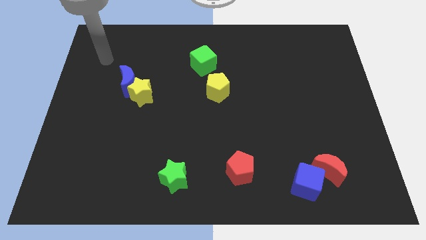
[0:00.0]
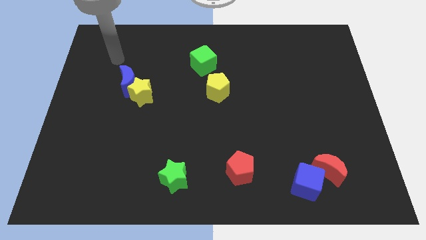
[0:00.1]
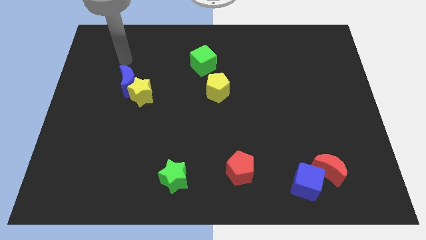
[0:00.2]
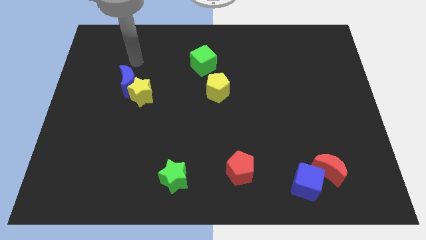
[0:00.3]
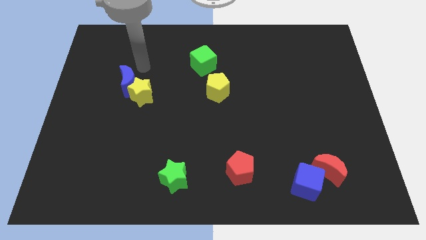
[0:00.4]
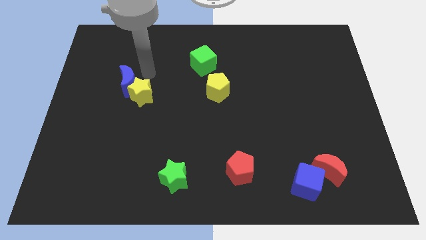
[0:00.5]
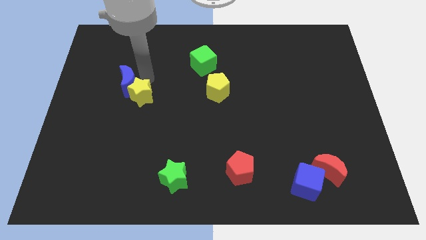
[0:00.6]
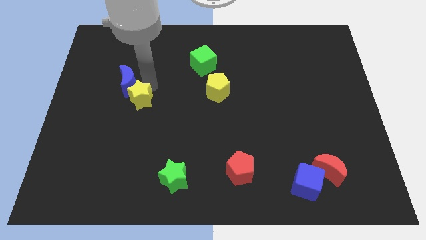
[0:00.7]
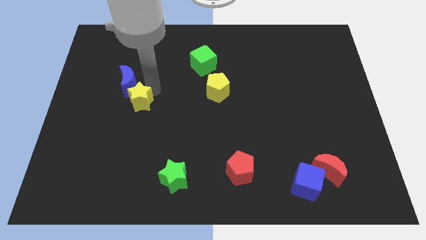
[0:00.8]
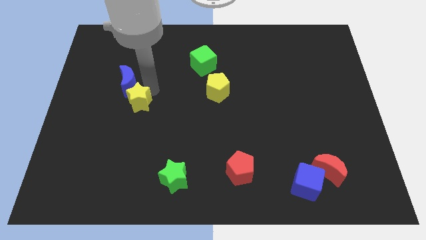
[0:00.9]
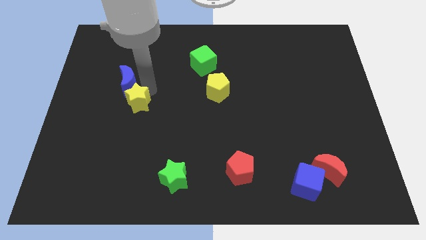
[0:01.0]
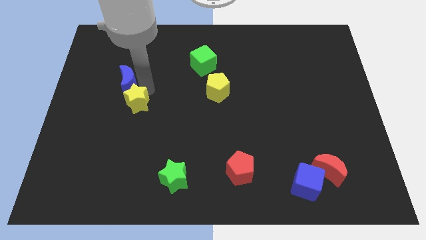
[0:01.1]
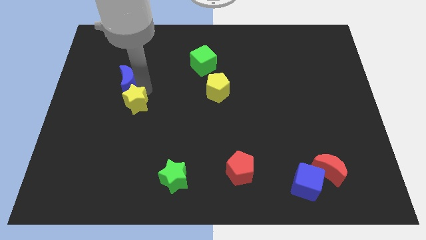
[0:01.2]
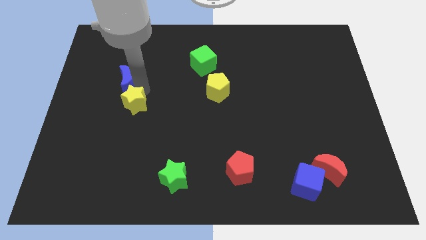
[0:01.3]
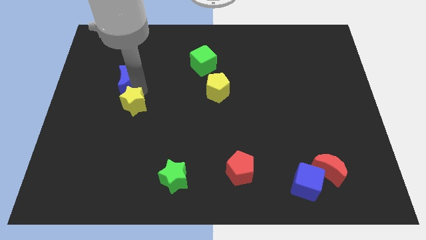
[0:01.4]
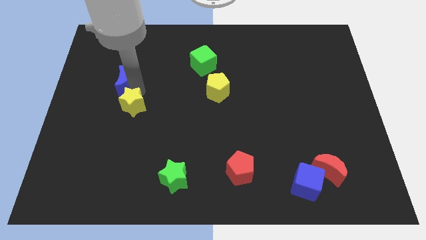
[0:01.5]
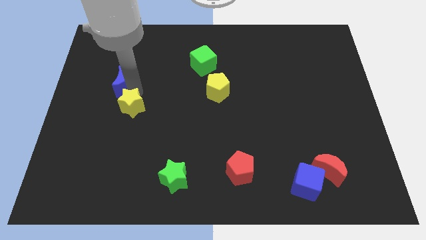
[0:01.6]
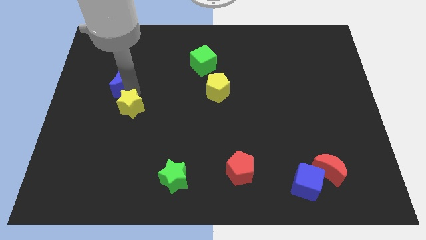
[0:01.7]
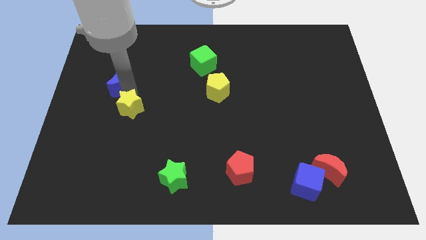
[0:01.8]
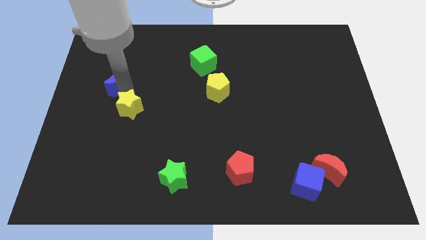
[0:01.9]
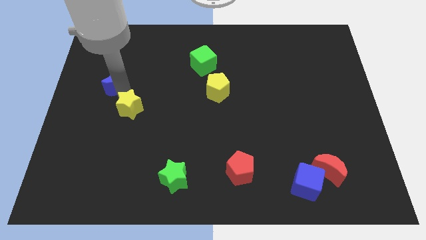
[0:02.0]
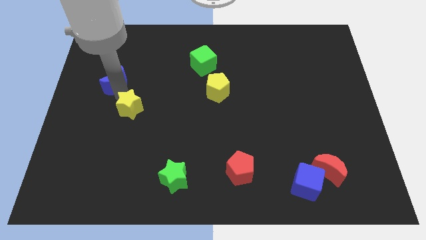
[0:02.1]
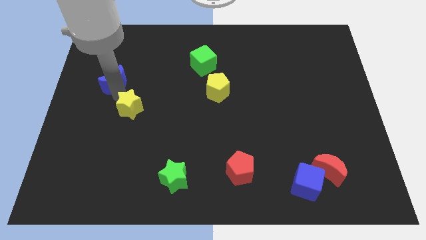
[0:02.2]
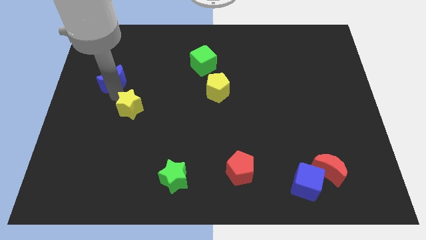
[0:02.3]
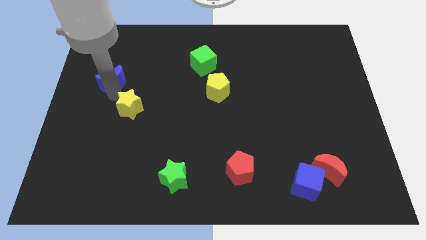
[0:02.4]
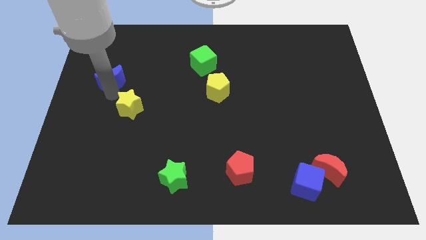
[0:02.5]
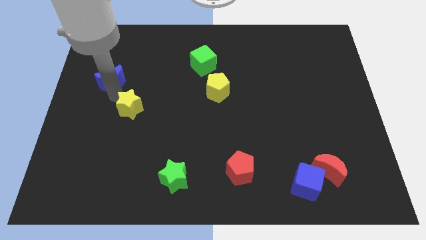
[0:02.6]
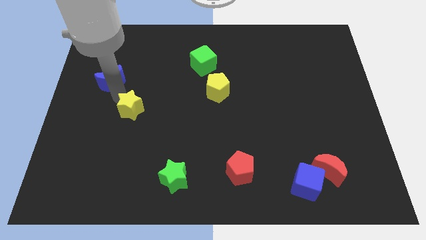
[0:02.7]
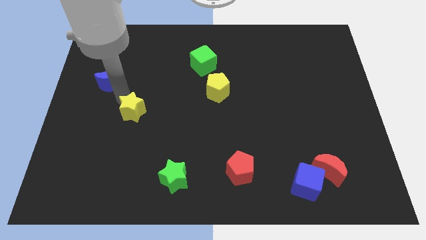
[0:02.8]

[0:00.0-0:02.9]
pull the blue moon apart from the yellow star

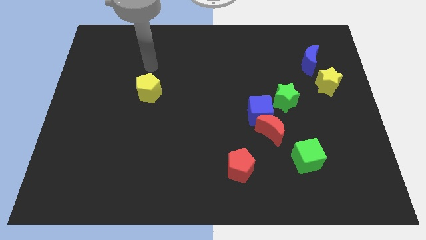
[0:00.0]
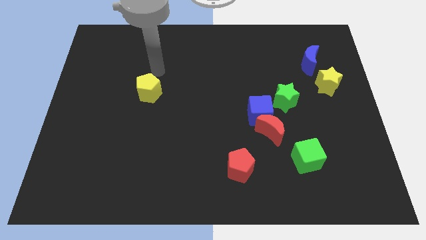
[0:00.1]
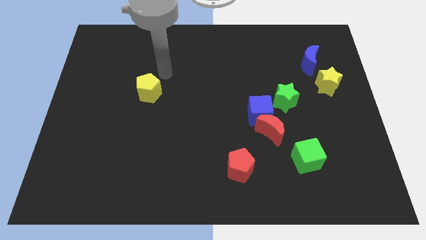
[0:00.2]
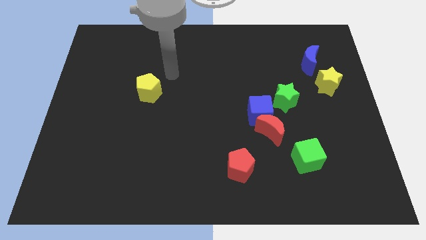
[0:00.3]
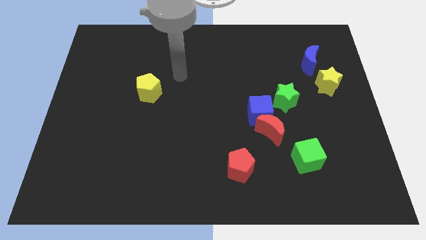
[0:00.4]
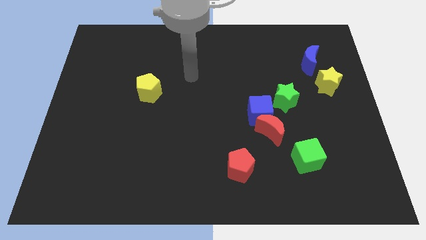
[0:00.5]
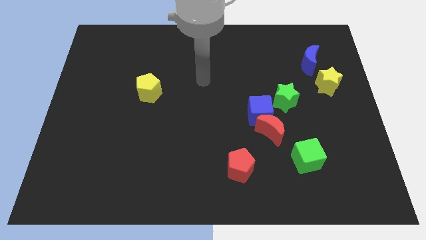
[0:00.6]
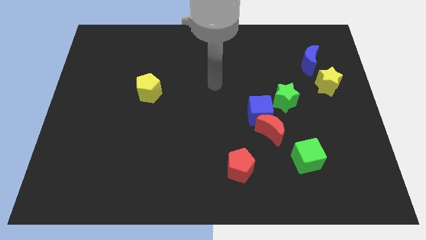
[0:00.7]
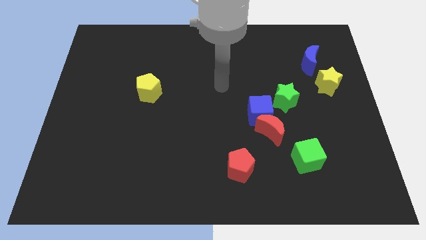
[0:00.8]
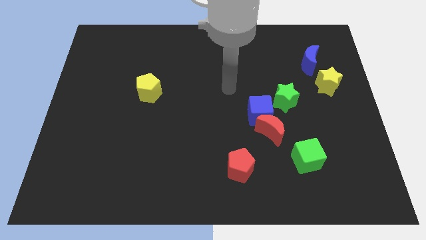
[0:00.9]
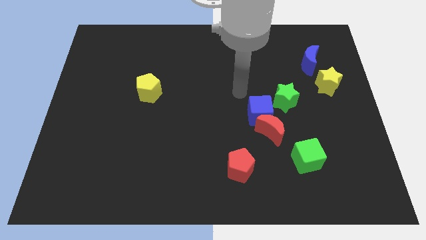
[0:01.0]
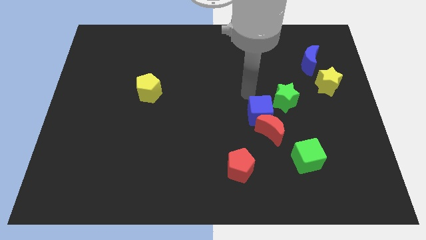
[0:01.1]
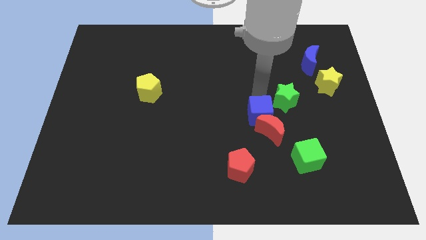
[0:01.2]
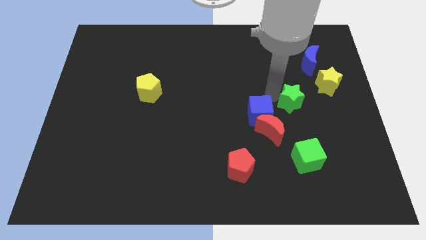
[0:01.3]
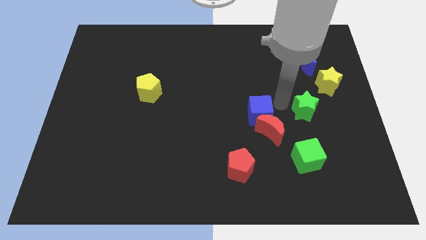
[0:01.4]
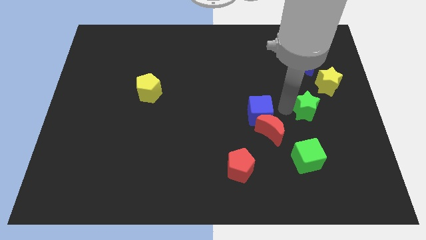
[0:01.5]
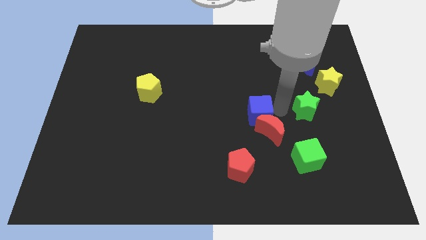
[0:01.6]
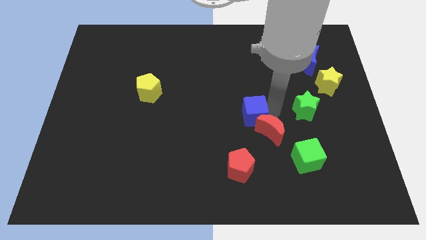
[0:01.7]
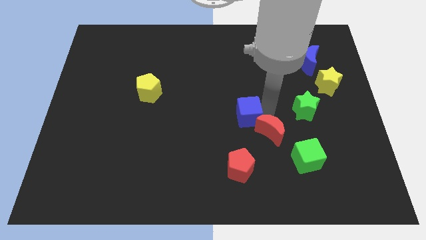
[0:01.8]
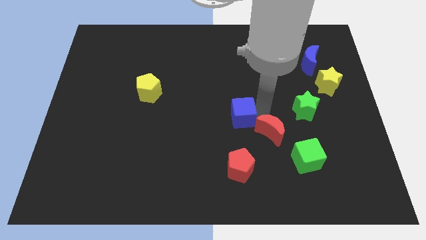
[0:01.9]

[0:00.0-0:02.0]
separate the blue cube from the red moon and green star

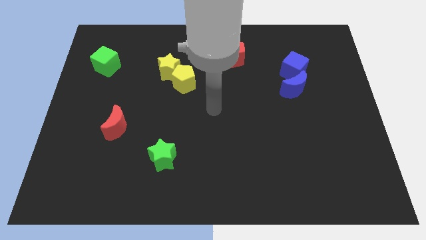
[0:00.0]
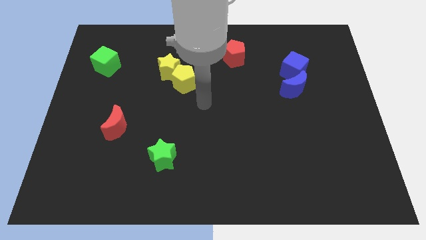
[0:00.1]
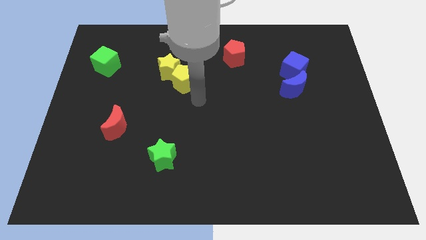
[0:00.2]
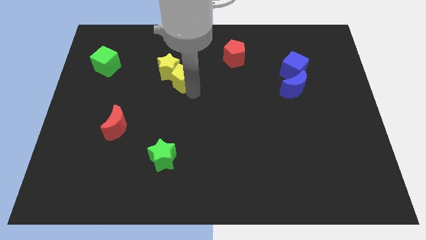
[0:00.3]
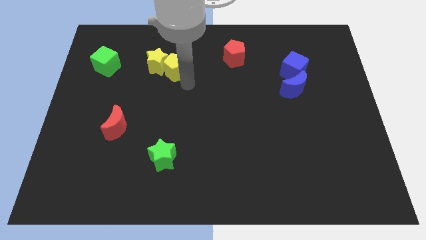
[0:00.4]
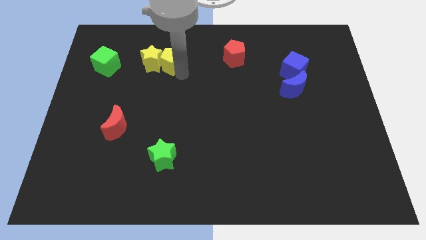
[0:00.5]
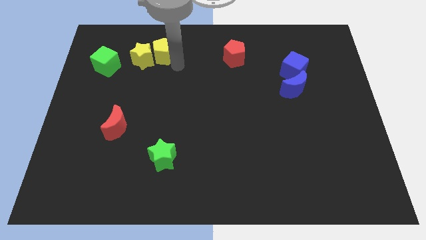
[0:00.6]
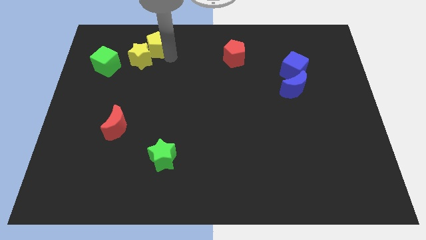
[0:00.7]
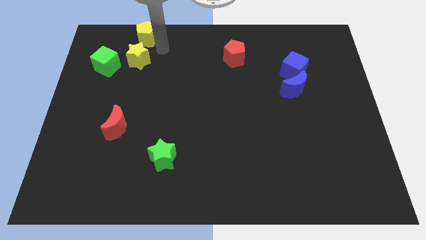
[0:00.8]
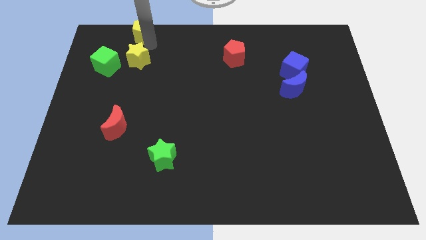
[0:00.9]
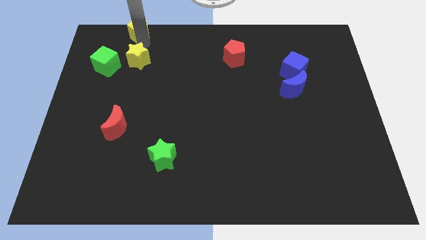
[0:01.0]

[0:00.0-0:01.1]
move the yellow star away from the yellow pentagon

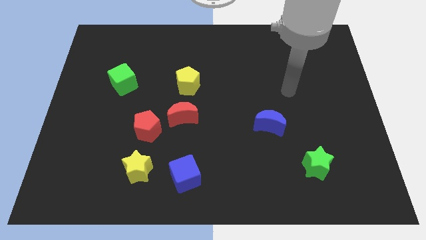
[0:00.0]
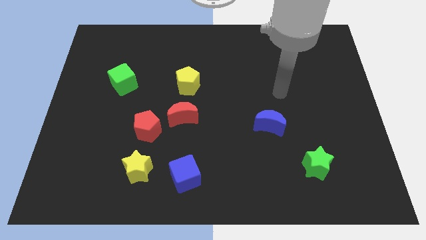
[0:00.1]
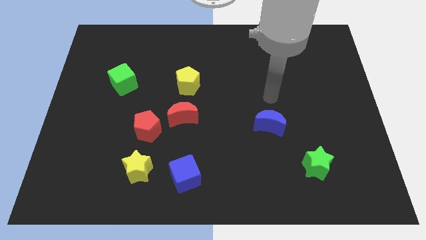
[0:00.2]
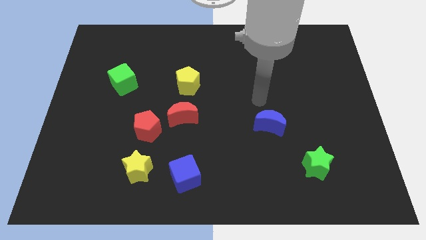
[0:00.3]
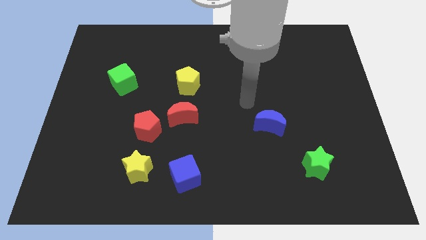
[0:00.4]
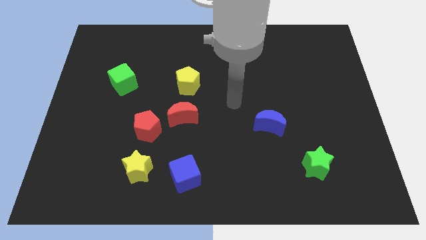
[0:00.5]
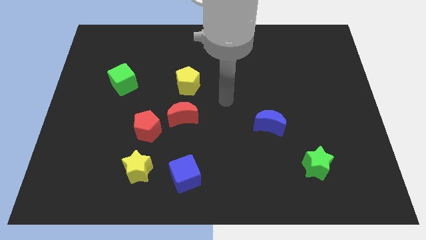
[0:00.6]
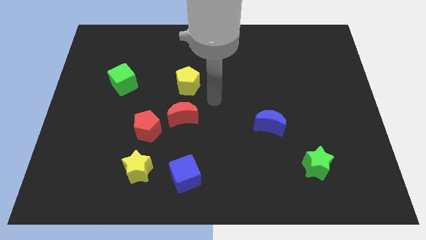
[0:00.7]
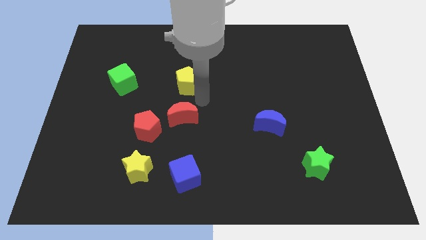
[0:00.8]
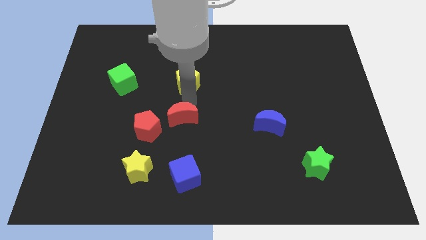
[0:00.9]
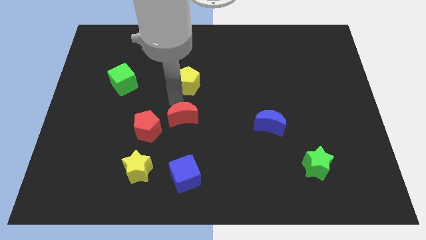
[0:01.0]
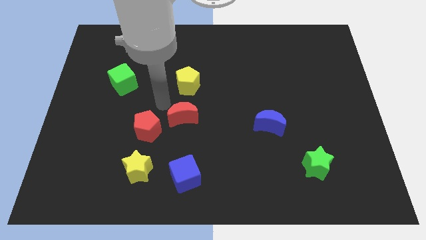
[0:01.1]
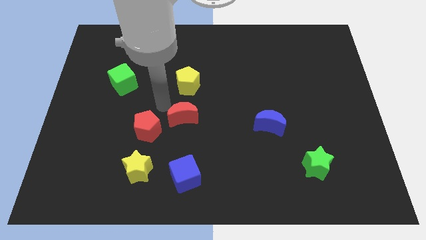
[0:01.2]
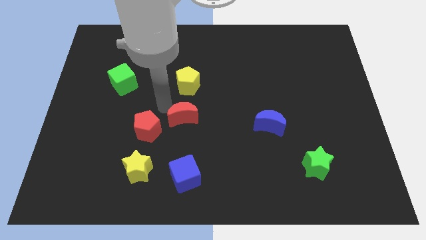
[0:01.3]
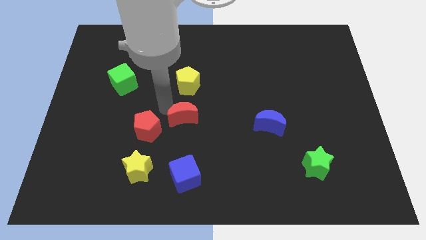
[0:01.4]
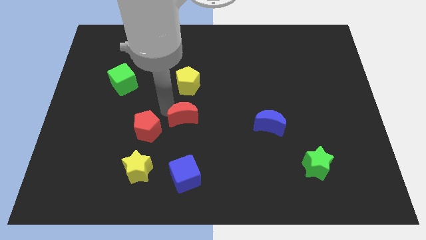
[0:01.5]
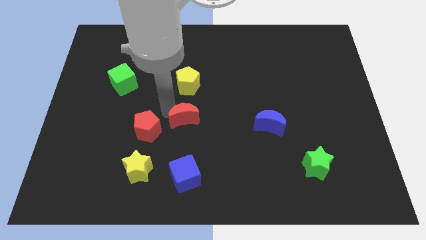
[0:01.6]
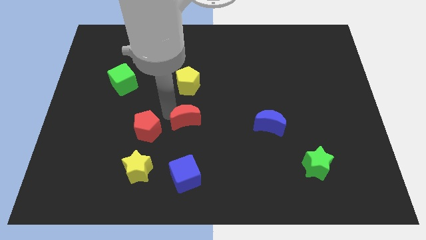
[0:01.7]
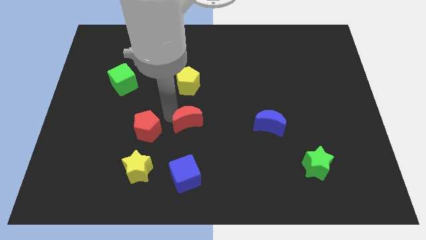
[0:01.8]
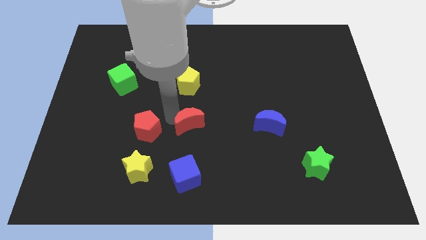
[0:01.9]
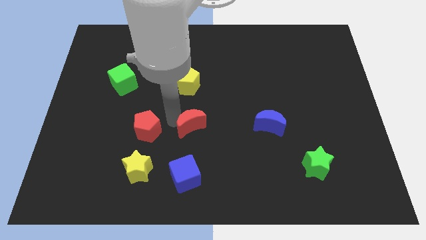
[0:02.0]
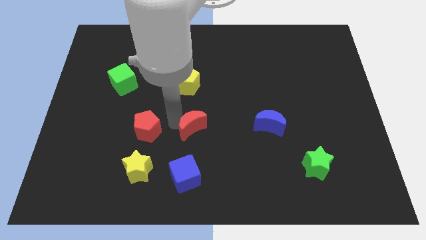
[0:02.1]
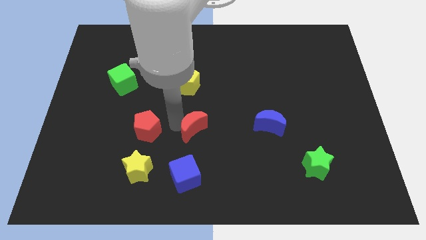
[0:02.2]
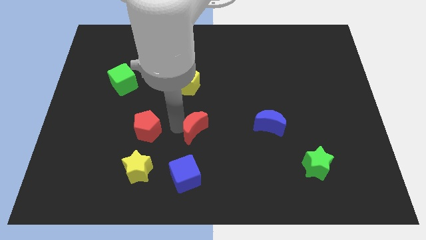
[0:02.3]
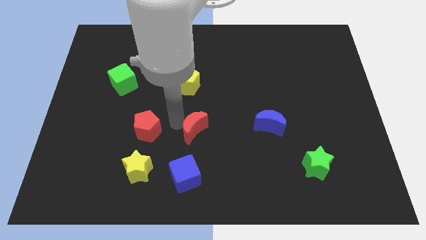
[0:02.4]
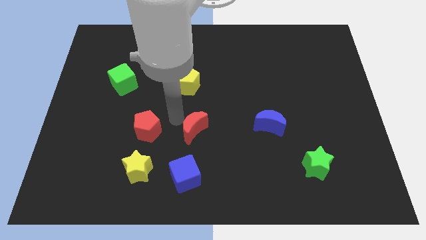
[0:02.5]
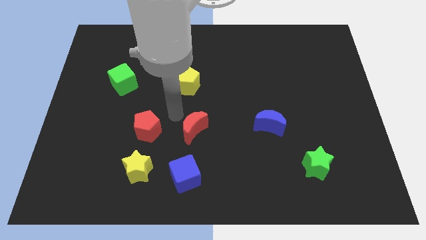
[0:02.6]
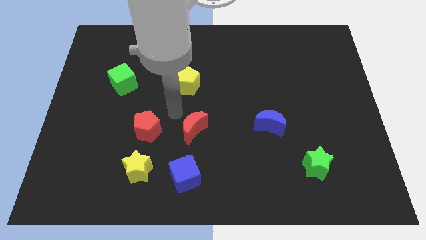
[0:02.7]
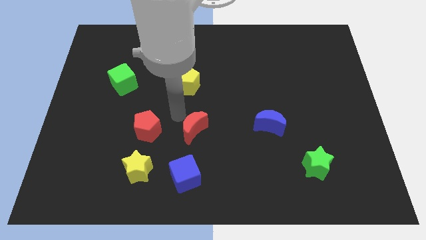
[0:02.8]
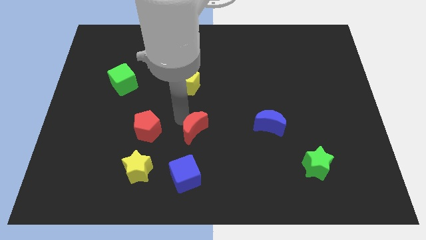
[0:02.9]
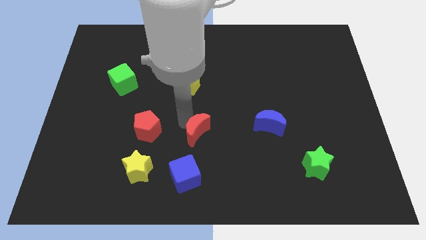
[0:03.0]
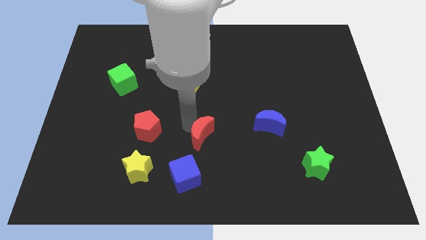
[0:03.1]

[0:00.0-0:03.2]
pull the red moon apart from the red pentagon and yellow pentagon

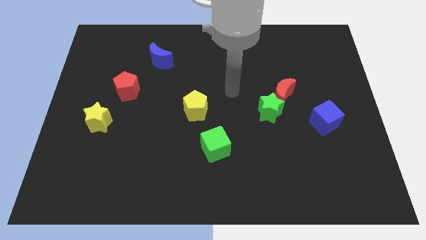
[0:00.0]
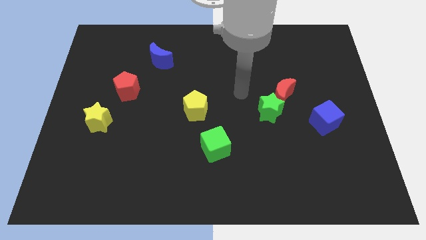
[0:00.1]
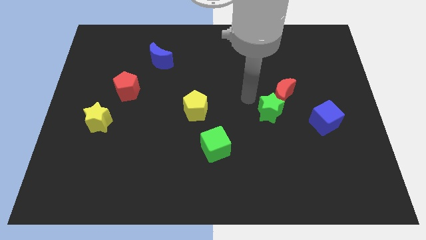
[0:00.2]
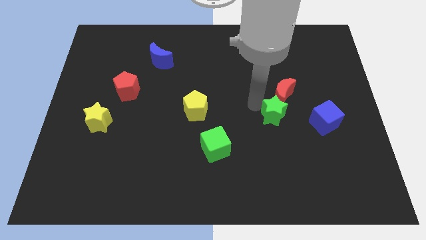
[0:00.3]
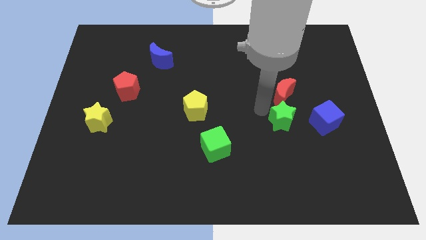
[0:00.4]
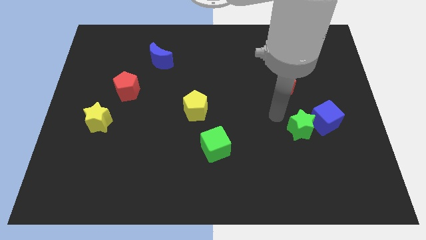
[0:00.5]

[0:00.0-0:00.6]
separate the red moon from the green star
